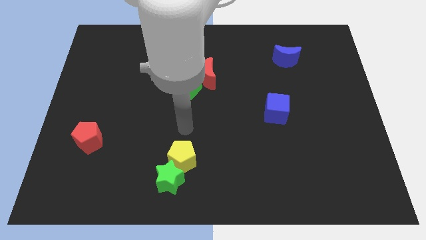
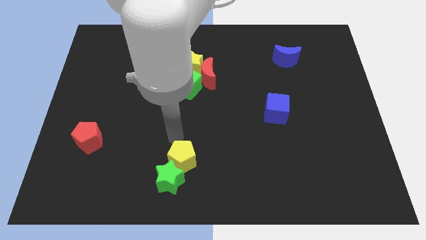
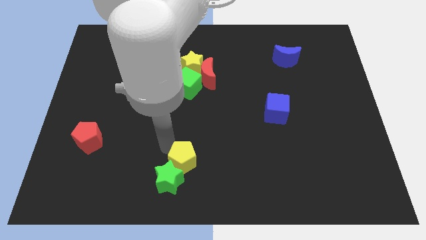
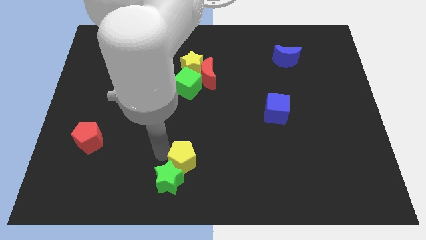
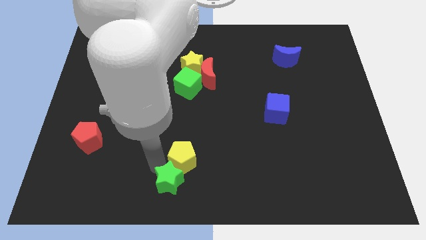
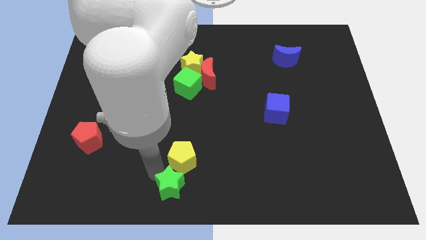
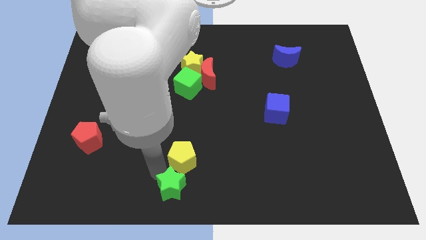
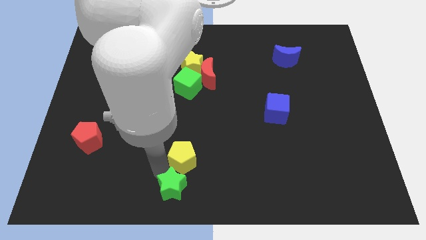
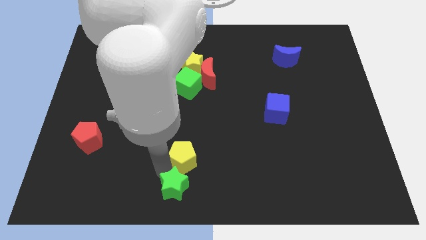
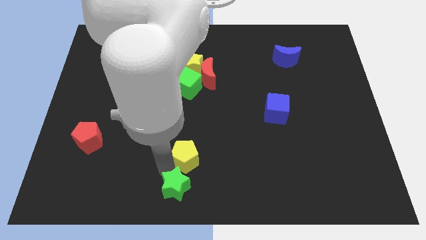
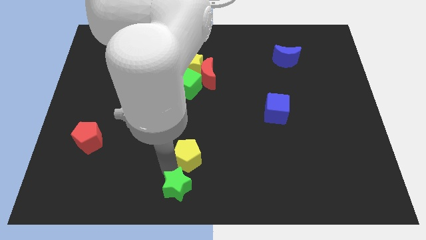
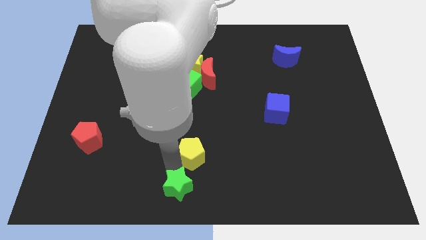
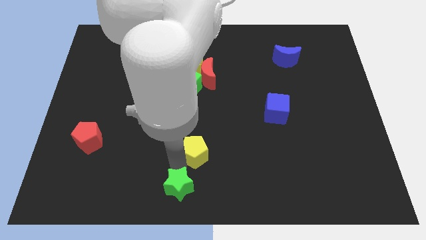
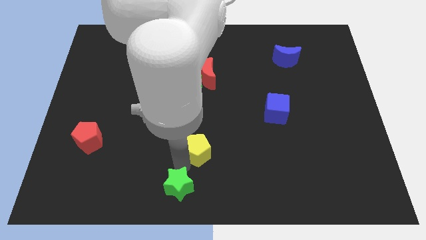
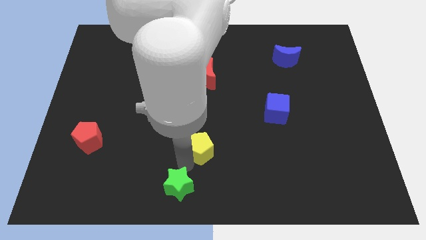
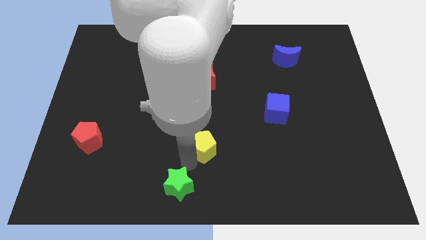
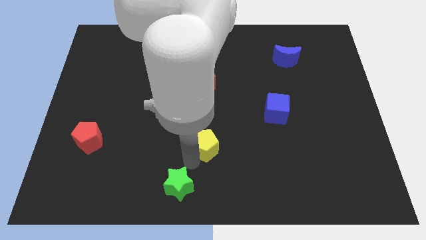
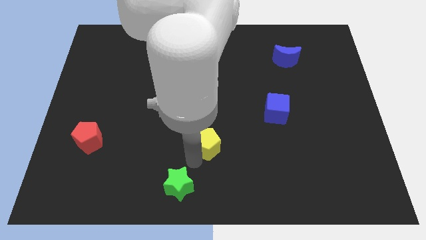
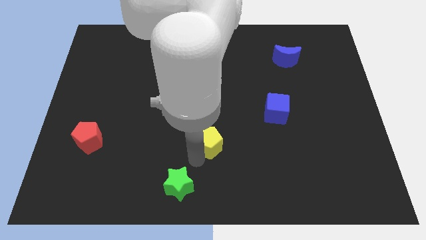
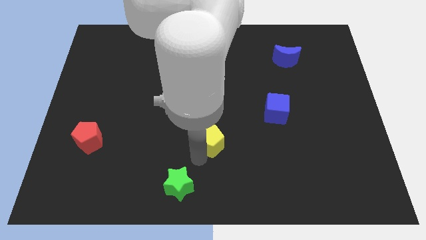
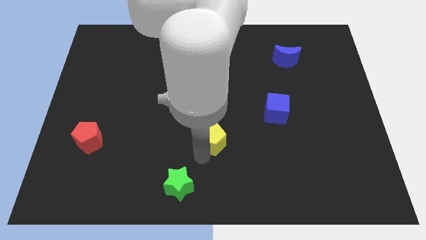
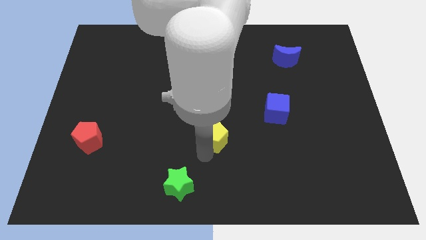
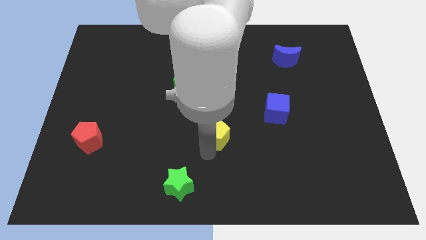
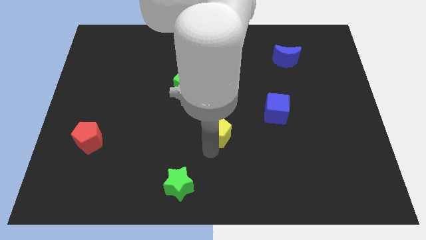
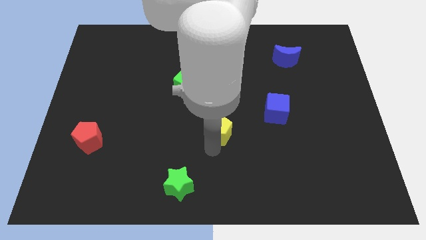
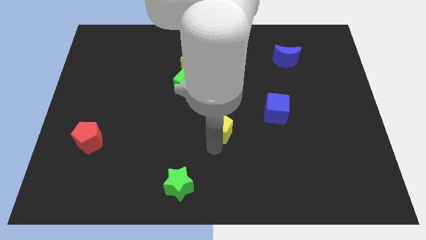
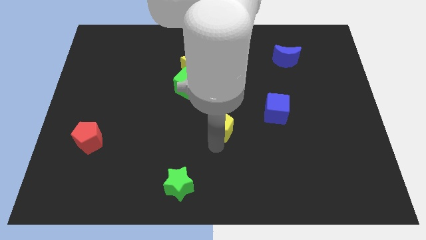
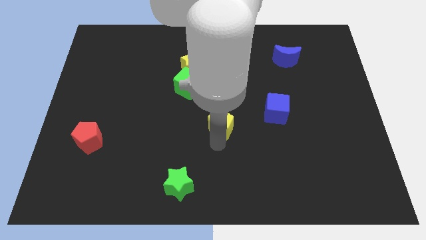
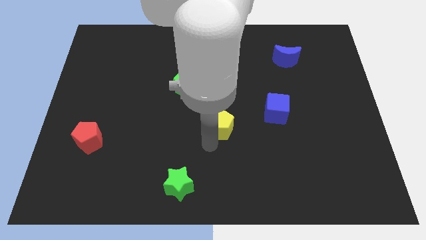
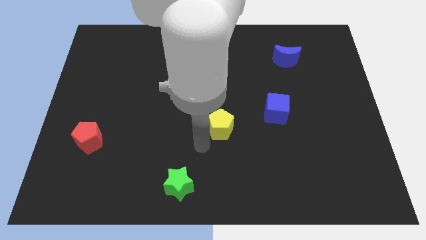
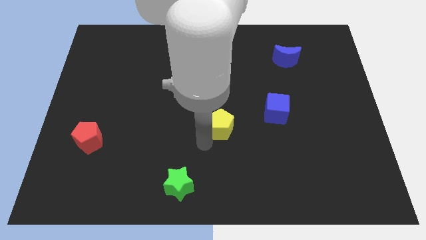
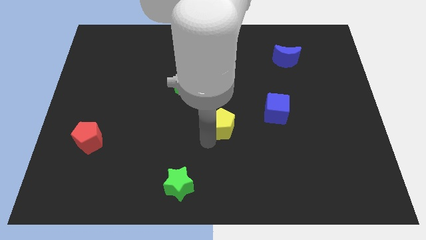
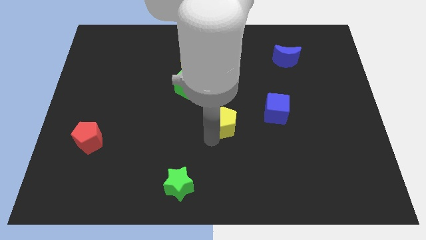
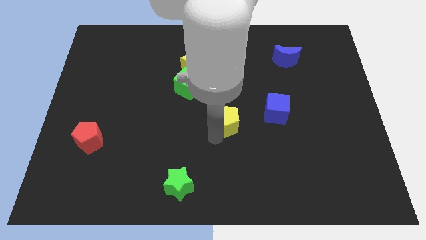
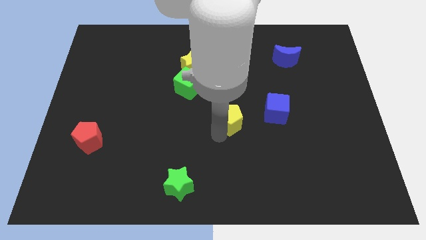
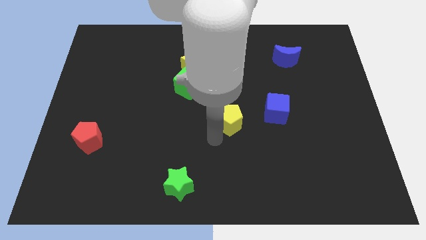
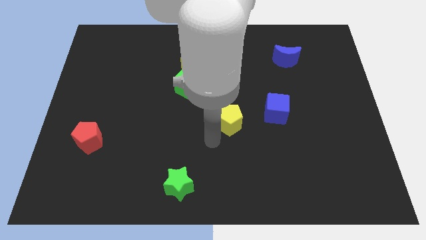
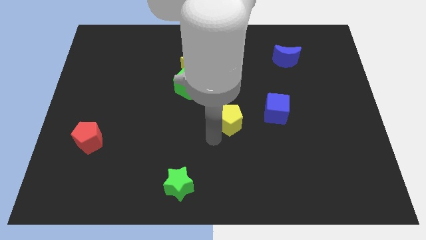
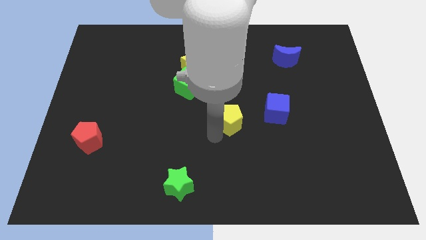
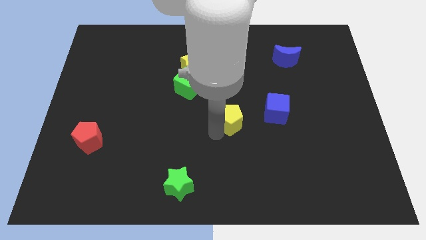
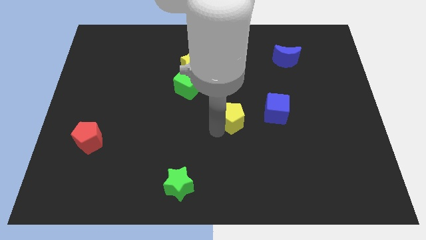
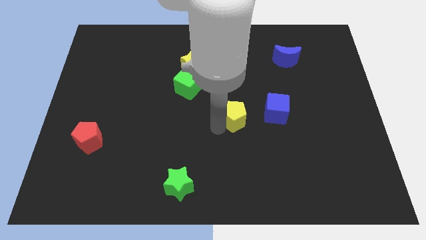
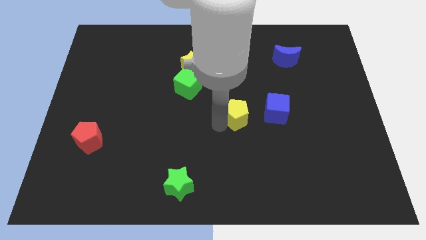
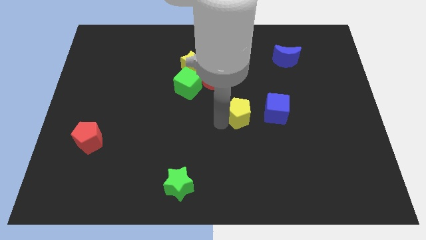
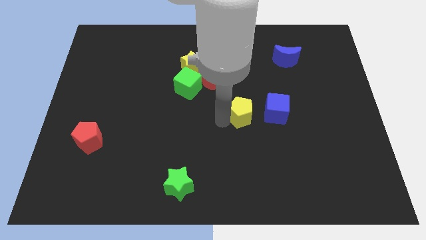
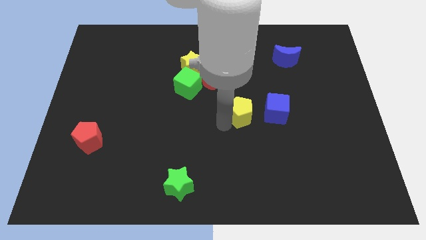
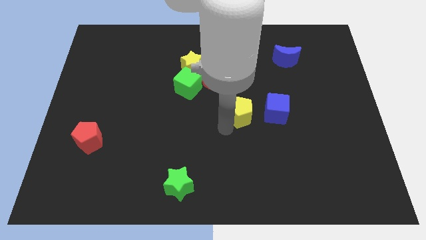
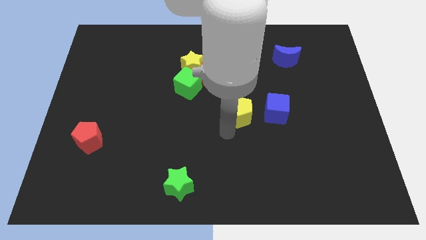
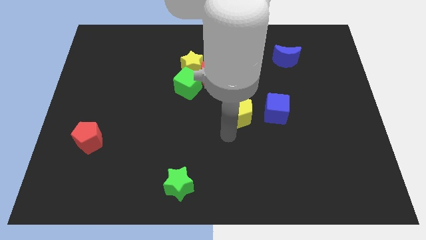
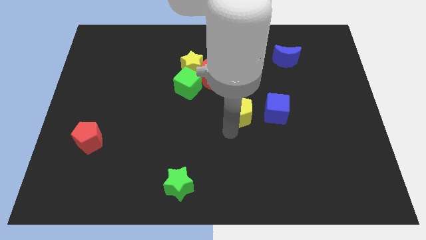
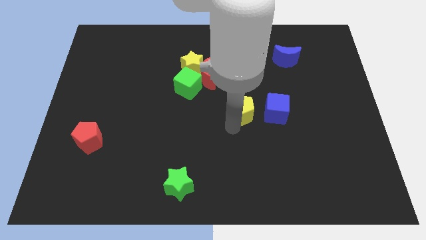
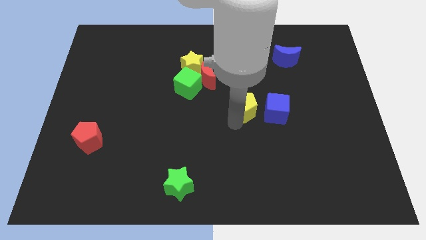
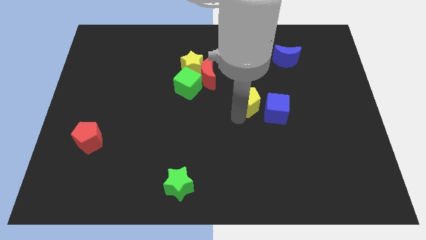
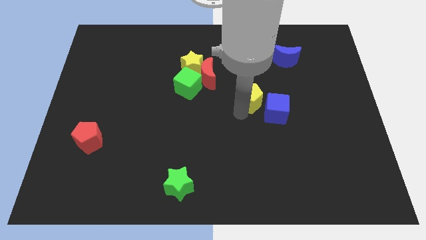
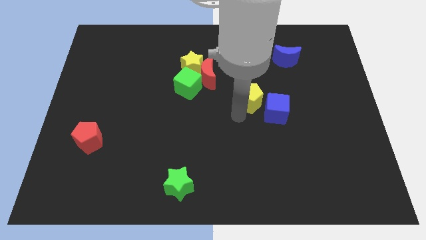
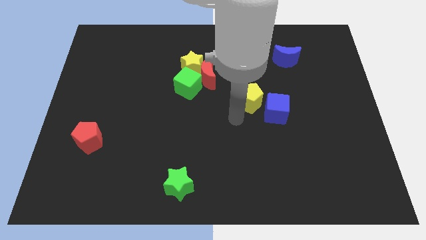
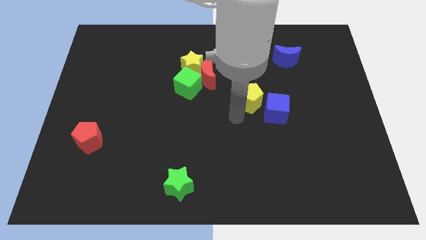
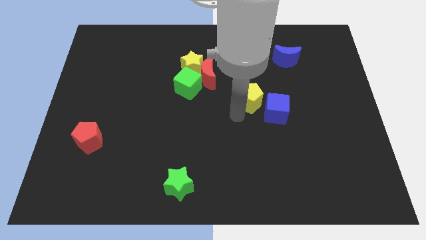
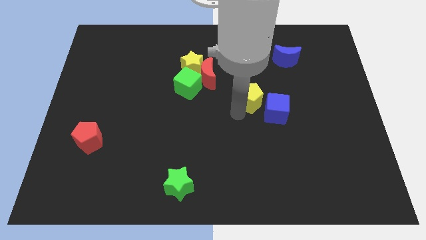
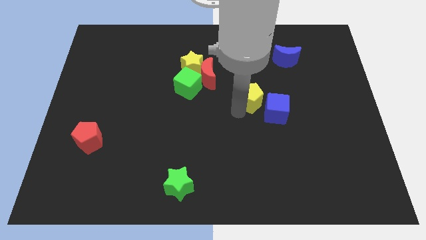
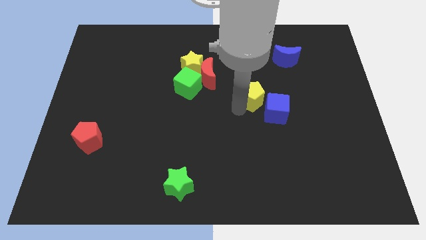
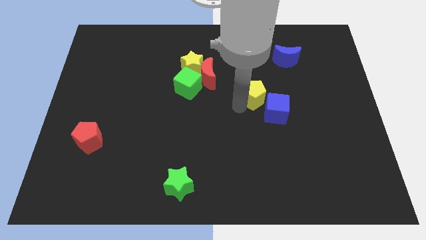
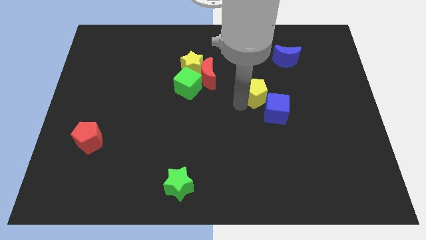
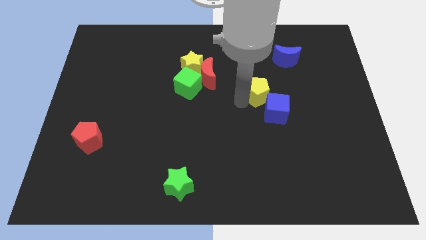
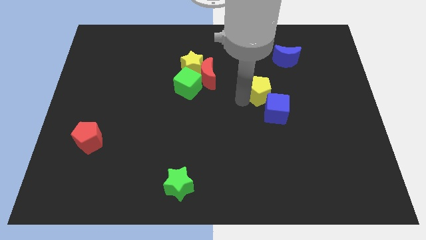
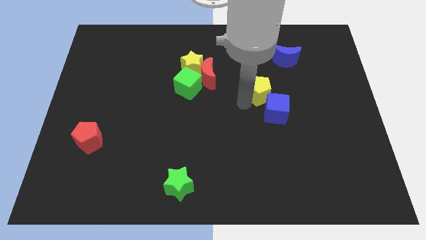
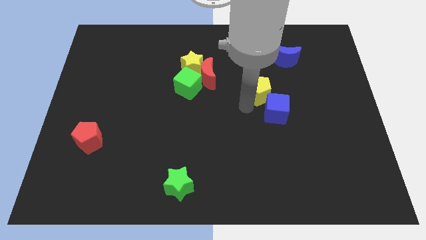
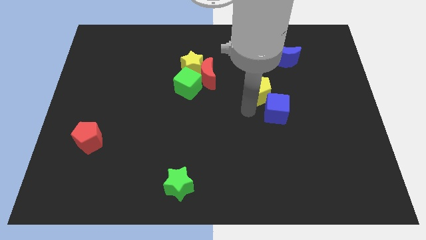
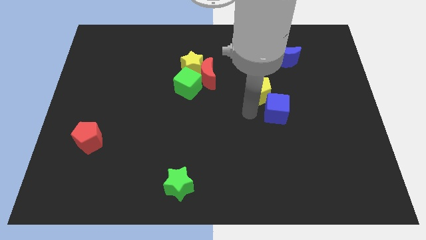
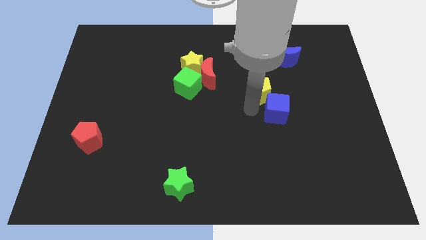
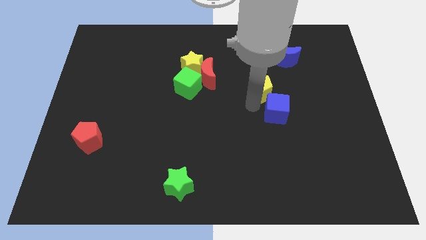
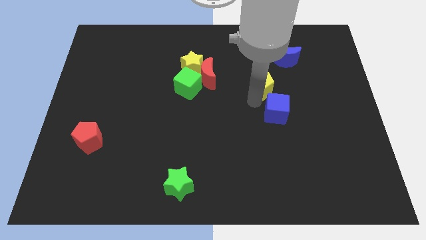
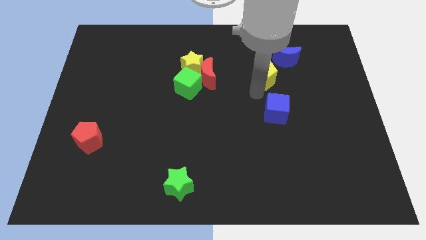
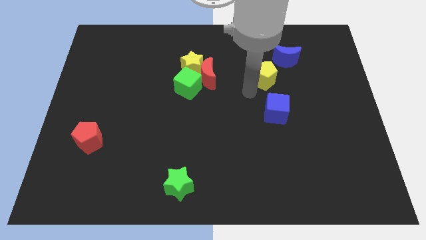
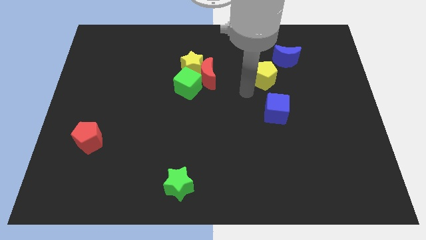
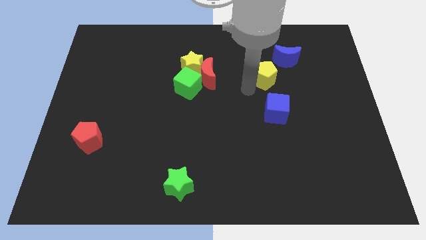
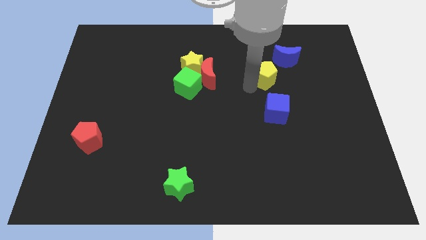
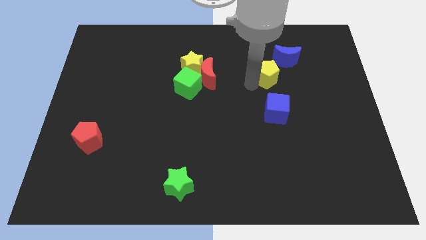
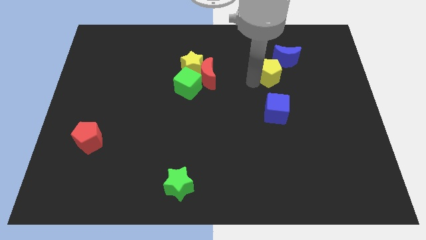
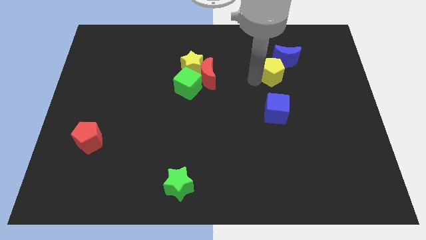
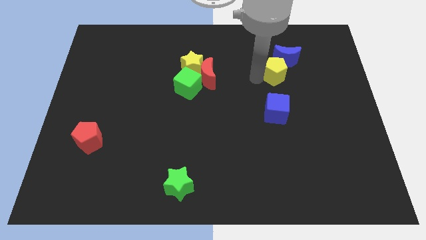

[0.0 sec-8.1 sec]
slide the yellow pentagon towards the blue moon

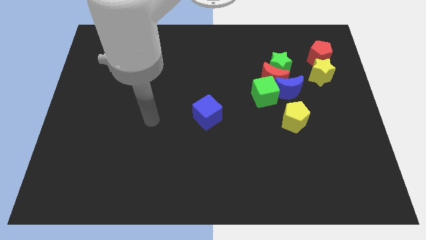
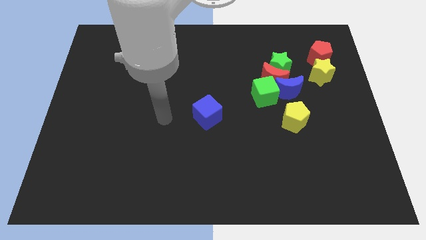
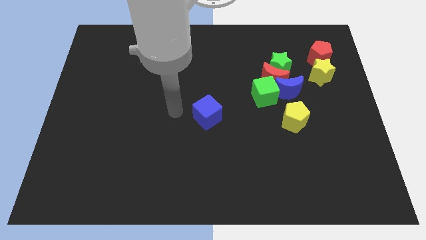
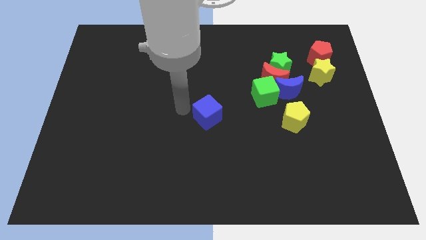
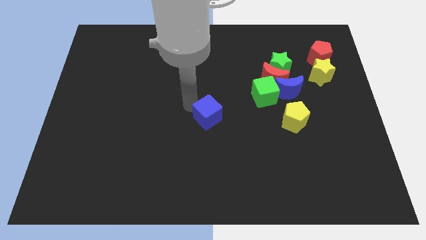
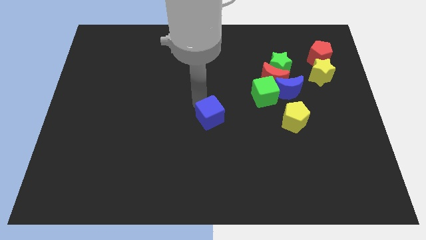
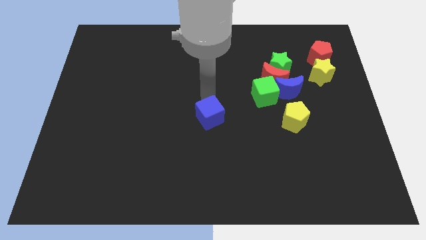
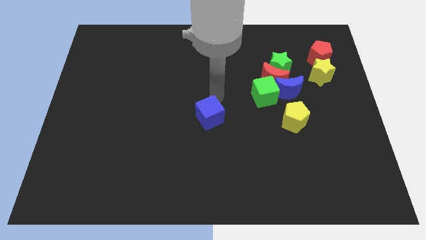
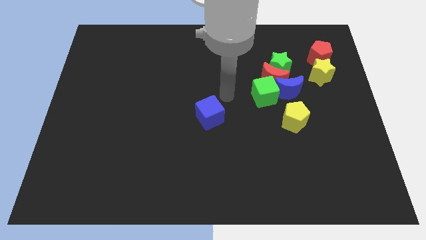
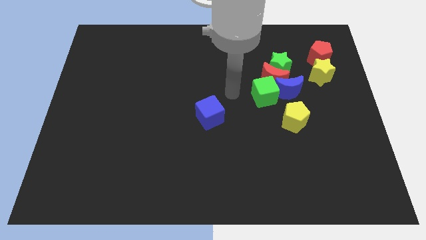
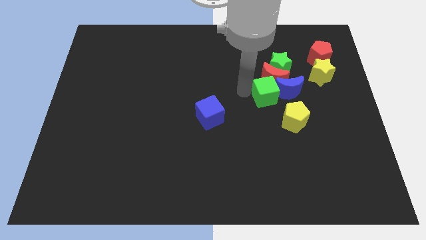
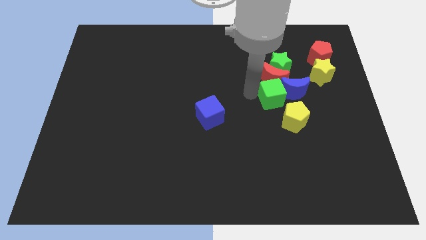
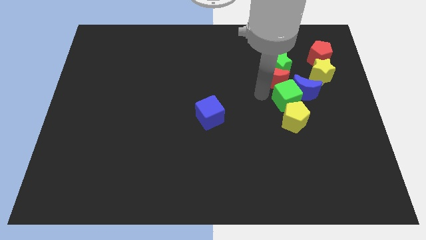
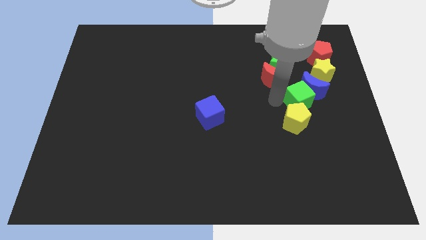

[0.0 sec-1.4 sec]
move the blue moon close to the yellow star
